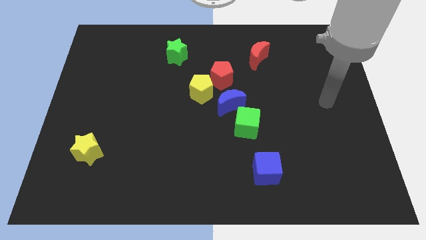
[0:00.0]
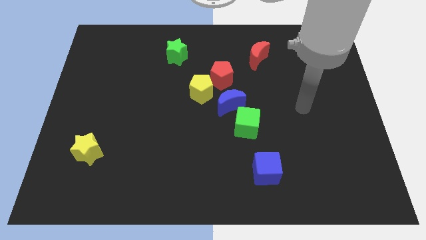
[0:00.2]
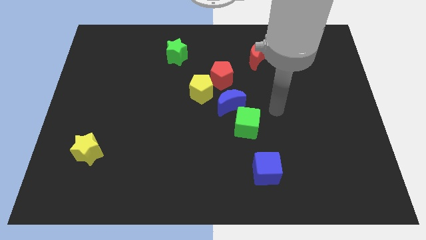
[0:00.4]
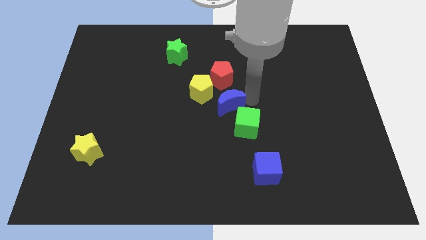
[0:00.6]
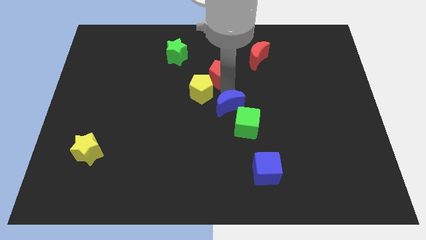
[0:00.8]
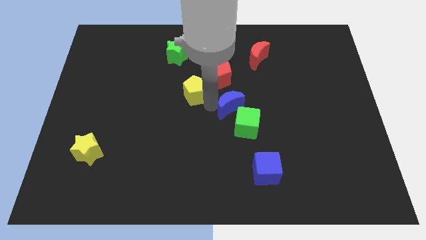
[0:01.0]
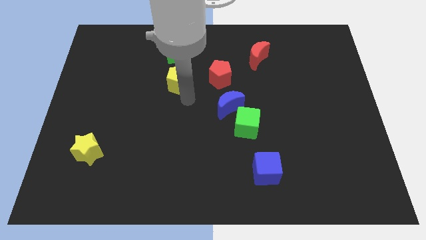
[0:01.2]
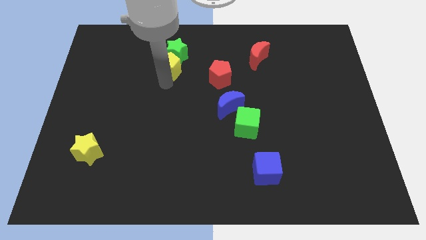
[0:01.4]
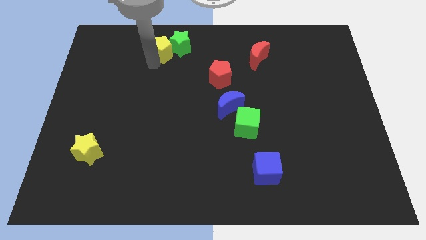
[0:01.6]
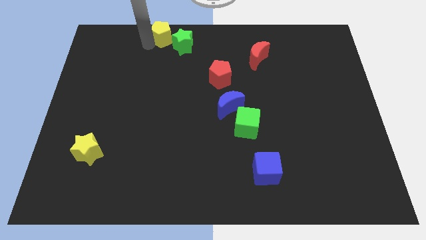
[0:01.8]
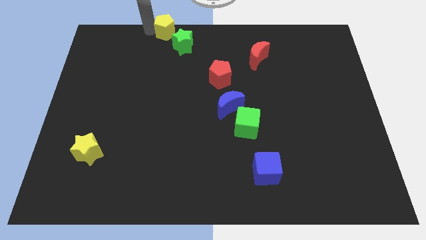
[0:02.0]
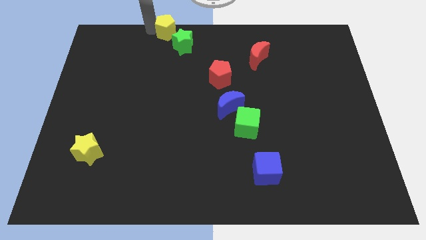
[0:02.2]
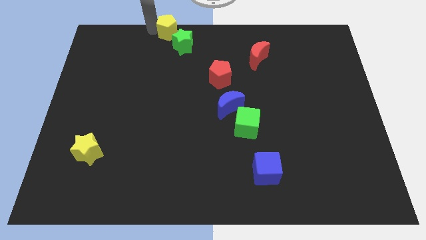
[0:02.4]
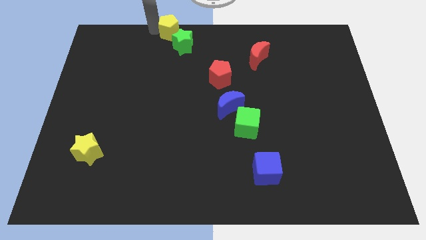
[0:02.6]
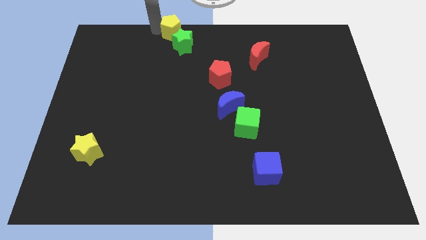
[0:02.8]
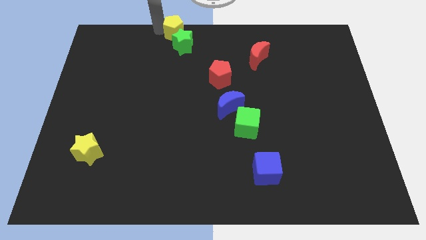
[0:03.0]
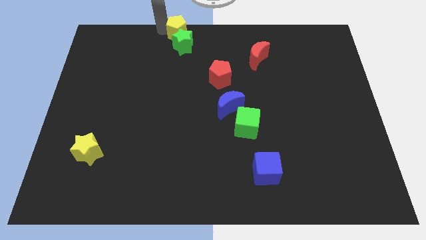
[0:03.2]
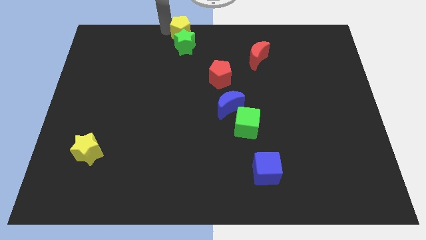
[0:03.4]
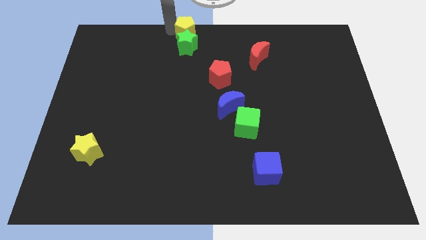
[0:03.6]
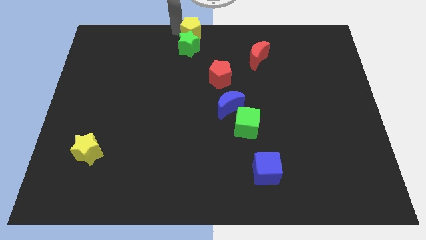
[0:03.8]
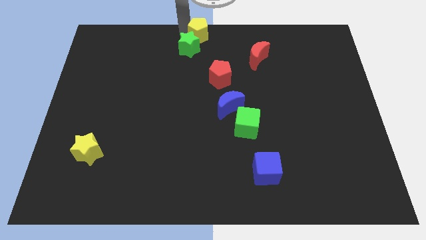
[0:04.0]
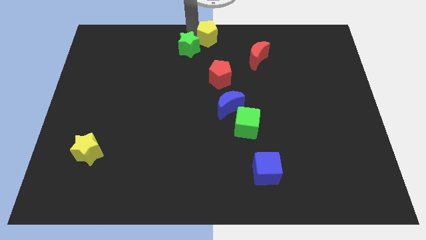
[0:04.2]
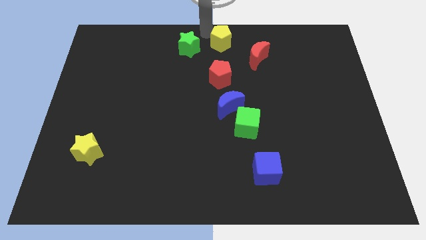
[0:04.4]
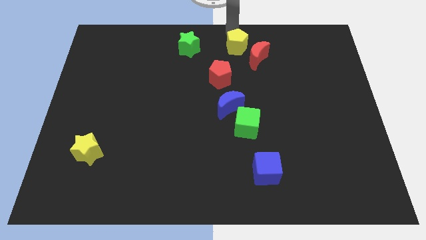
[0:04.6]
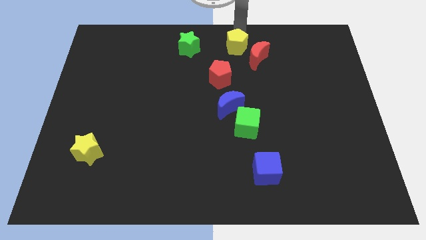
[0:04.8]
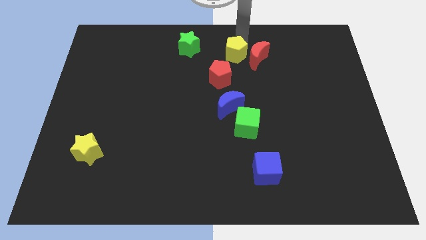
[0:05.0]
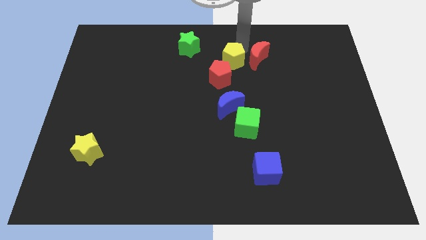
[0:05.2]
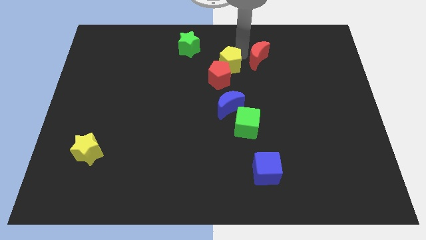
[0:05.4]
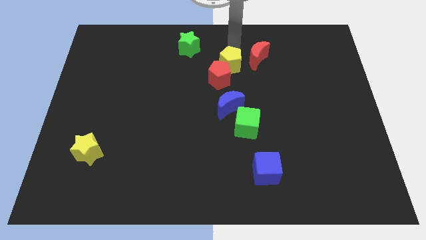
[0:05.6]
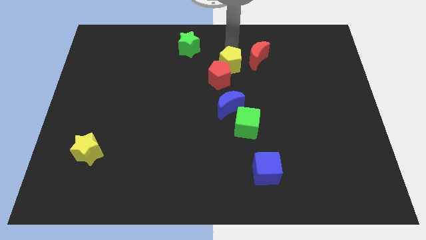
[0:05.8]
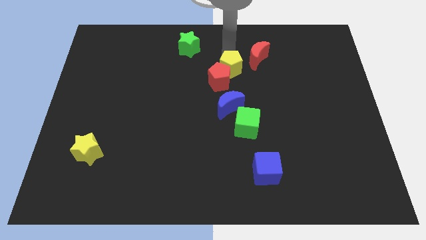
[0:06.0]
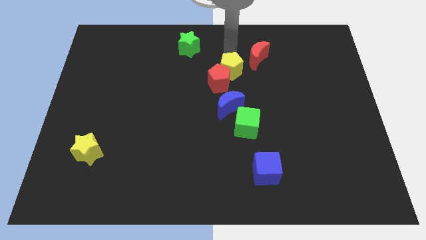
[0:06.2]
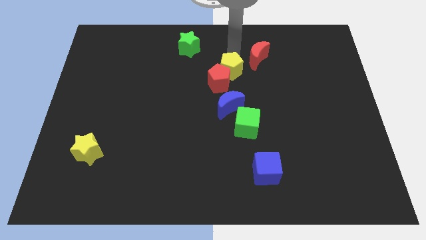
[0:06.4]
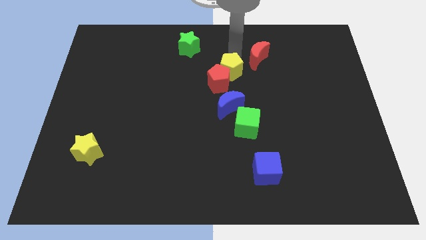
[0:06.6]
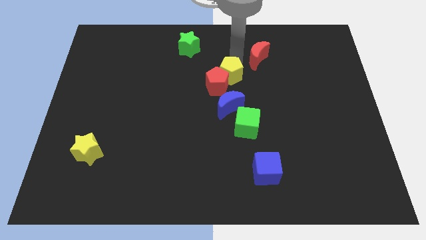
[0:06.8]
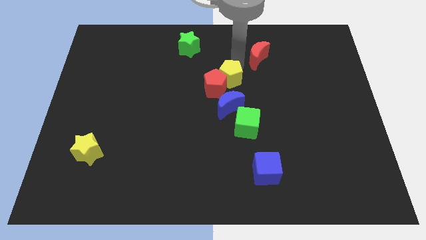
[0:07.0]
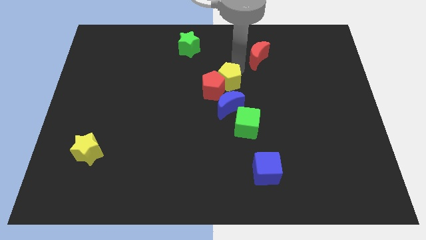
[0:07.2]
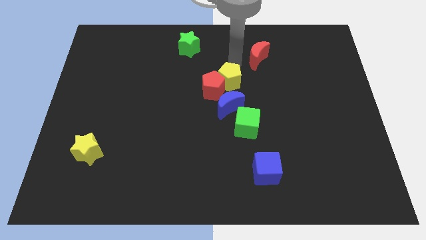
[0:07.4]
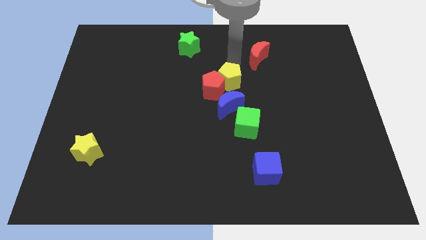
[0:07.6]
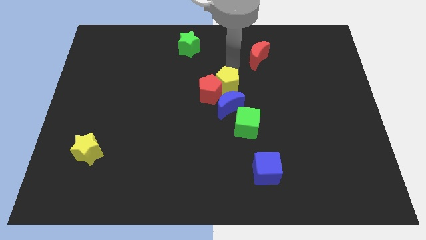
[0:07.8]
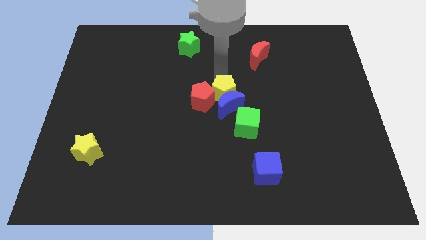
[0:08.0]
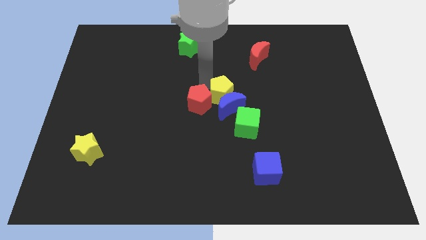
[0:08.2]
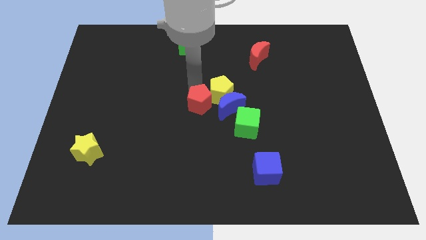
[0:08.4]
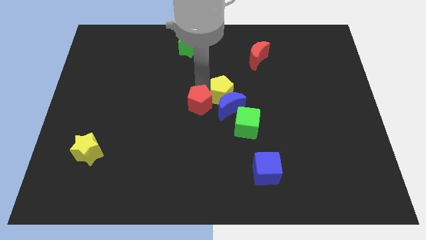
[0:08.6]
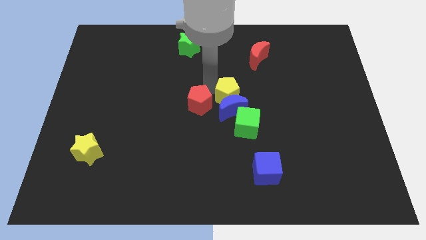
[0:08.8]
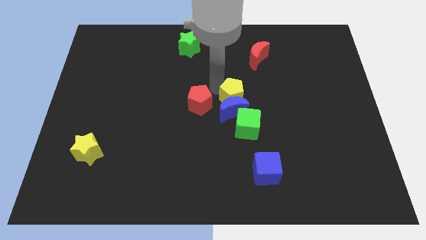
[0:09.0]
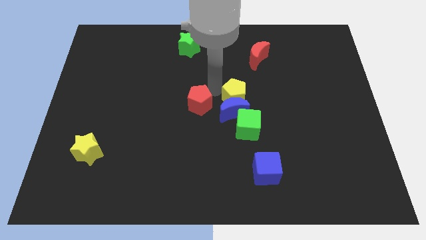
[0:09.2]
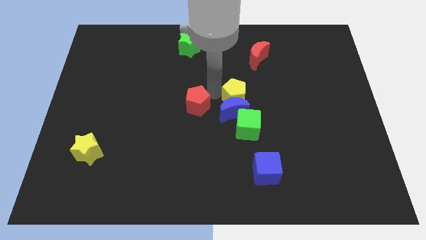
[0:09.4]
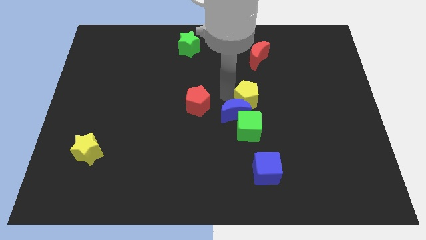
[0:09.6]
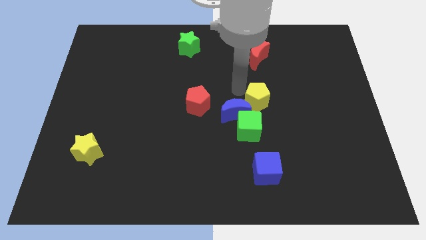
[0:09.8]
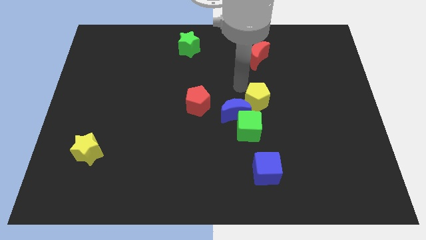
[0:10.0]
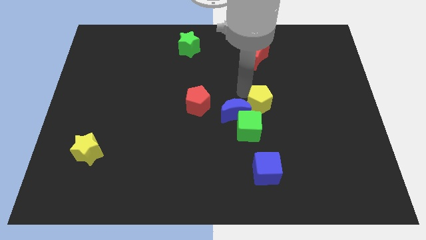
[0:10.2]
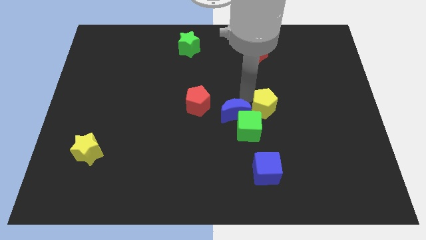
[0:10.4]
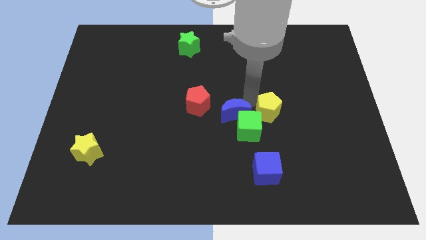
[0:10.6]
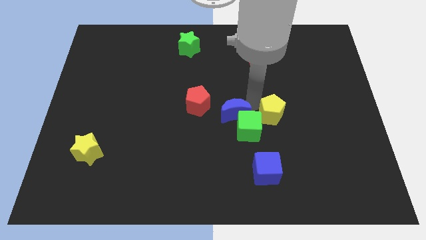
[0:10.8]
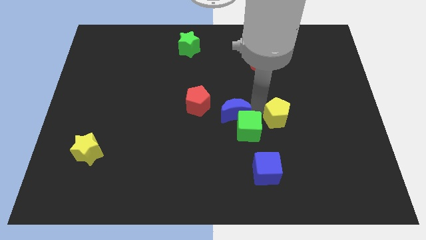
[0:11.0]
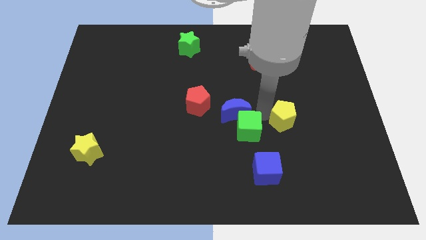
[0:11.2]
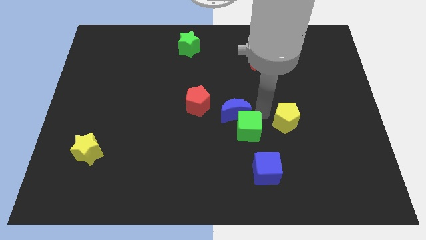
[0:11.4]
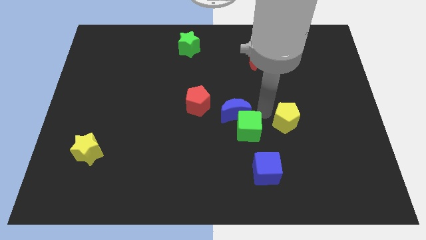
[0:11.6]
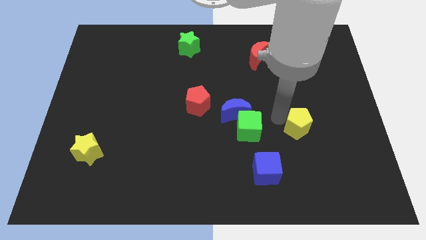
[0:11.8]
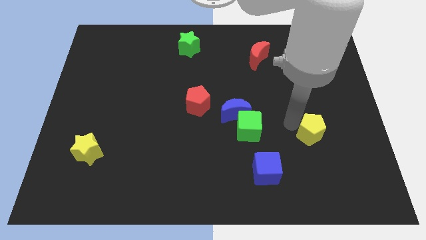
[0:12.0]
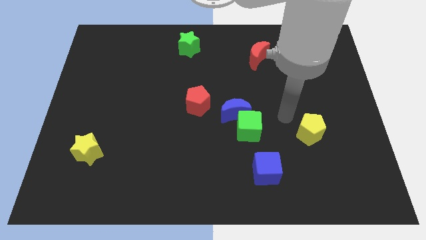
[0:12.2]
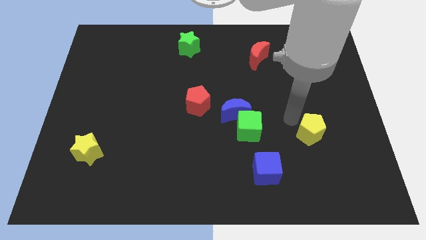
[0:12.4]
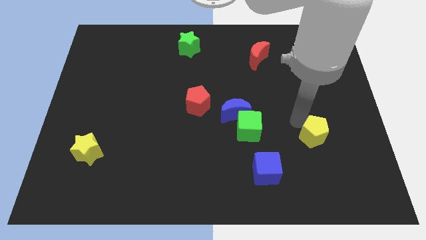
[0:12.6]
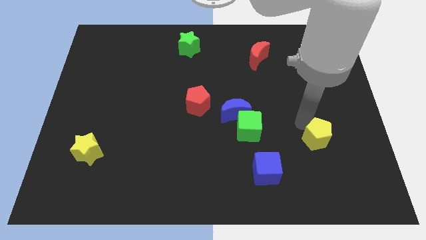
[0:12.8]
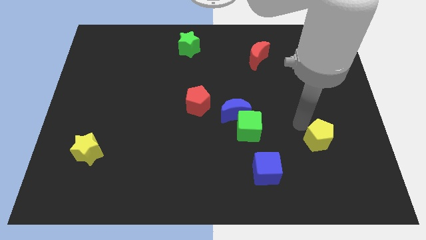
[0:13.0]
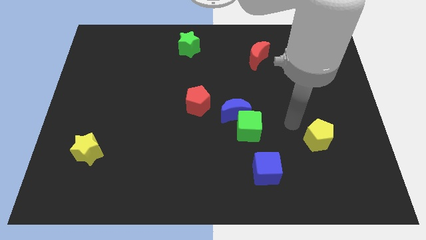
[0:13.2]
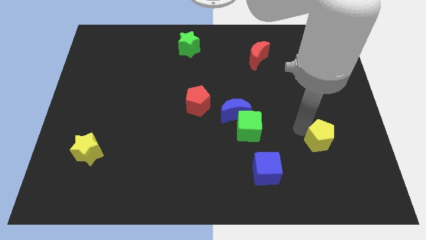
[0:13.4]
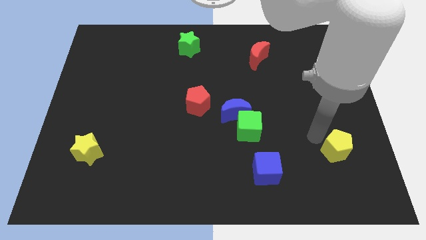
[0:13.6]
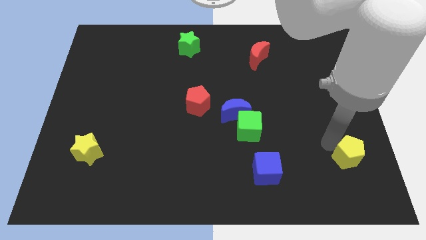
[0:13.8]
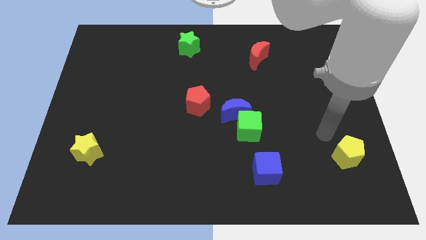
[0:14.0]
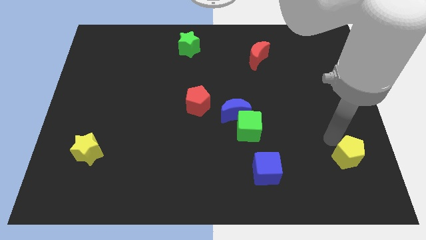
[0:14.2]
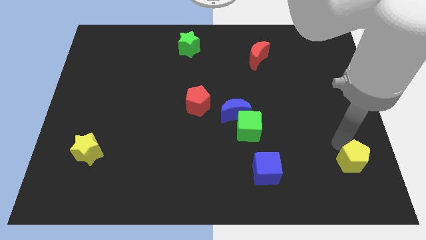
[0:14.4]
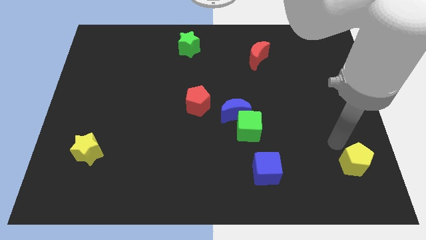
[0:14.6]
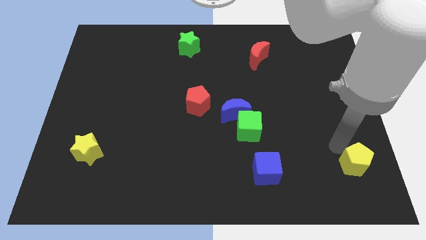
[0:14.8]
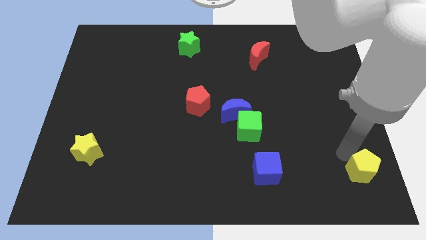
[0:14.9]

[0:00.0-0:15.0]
slide the yellow pentagon to the bottom right corner
